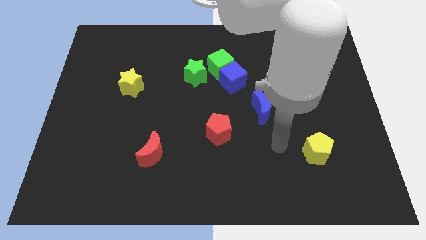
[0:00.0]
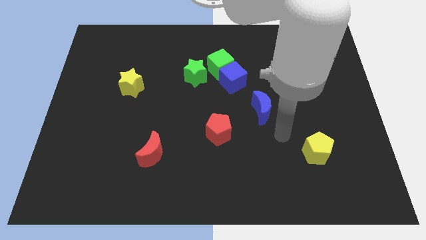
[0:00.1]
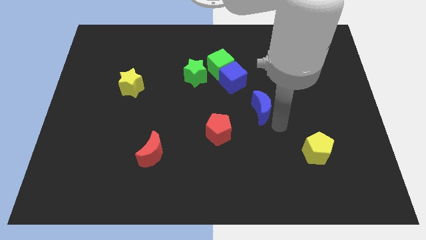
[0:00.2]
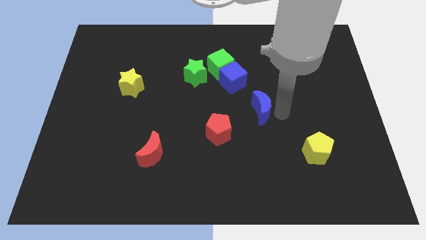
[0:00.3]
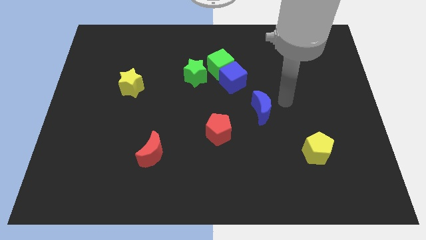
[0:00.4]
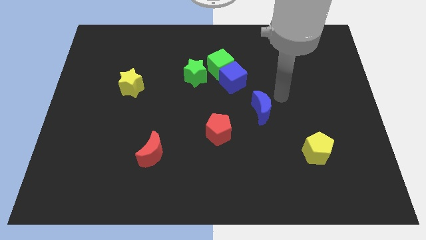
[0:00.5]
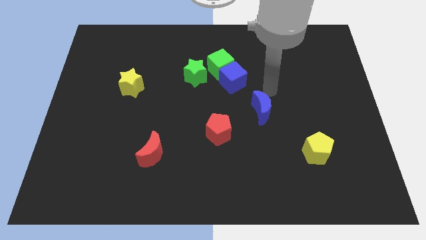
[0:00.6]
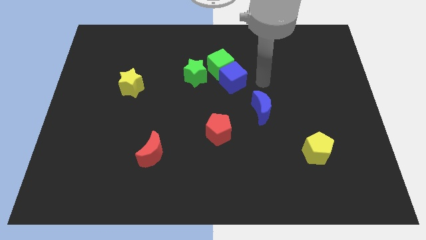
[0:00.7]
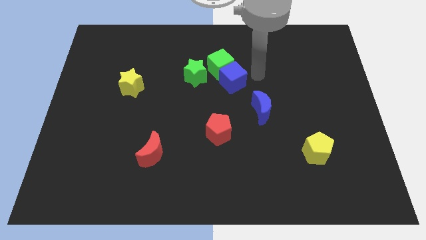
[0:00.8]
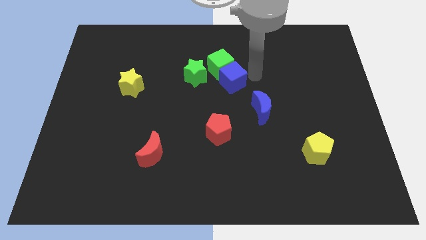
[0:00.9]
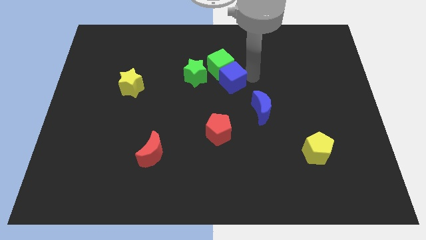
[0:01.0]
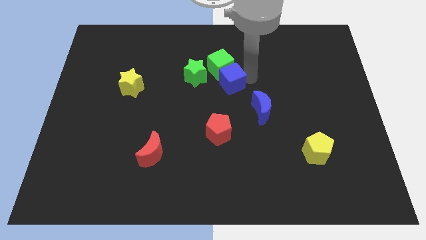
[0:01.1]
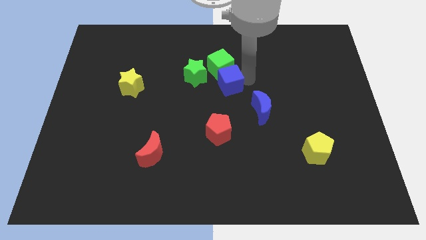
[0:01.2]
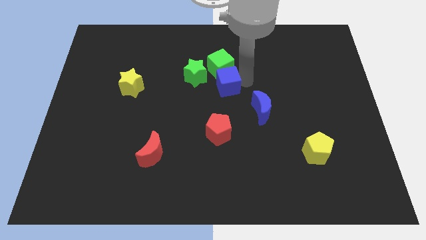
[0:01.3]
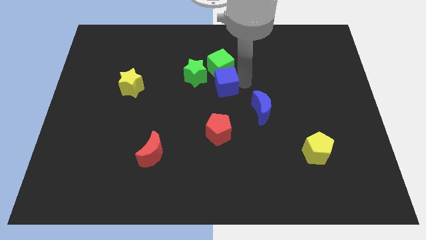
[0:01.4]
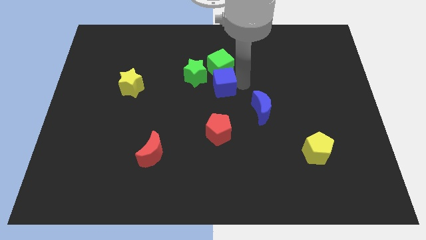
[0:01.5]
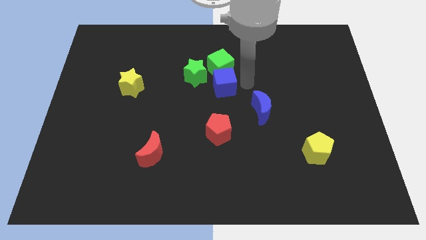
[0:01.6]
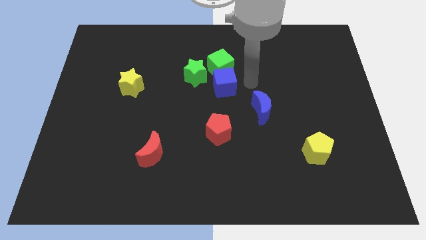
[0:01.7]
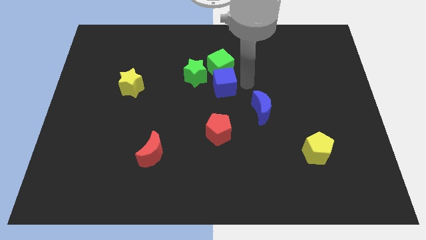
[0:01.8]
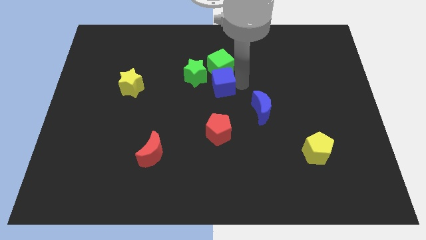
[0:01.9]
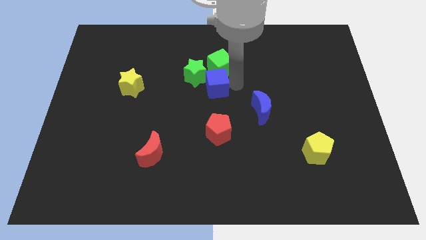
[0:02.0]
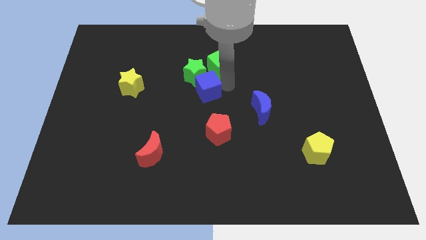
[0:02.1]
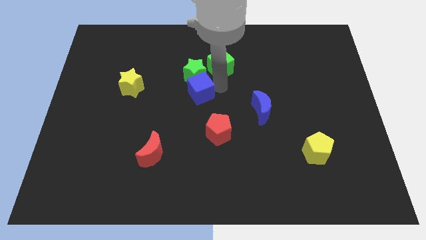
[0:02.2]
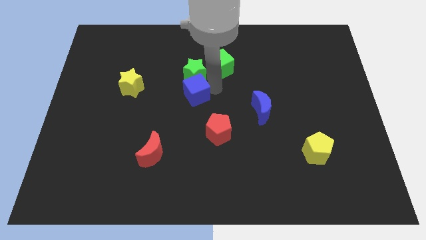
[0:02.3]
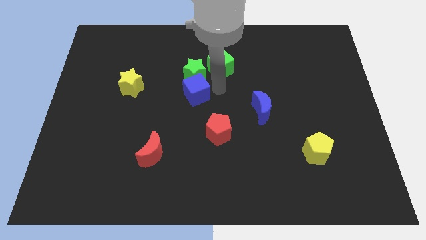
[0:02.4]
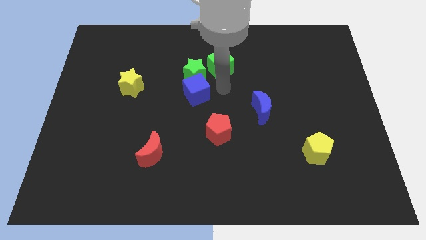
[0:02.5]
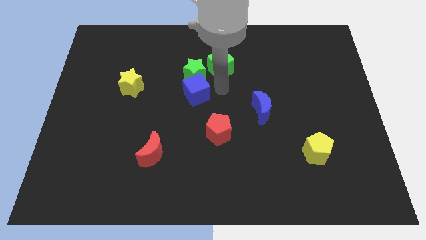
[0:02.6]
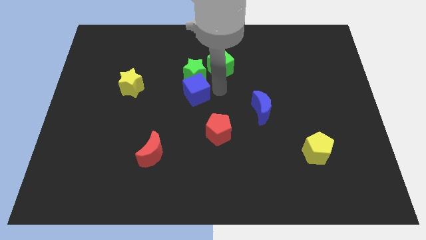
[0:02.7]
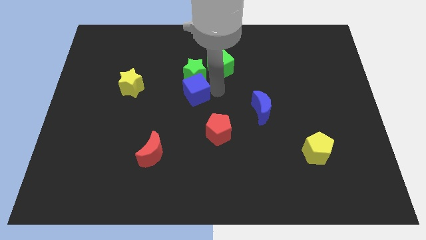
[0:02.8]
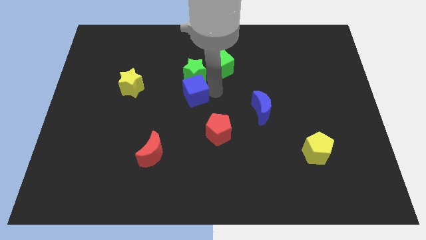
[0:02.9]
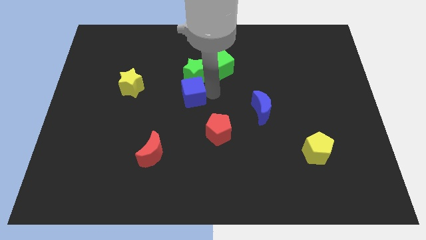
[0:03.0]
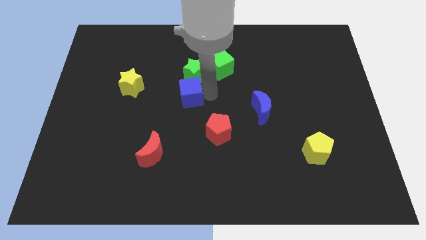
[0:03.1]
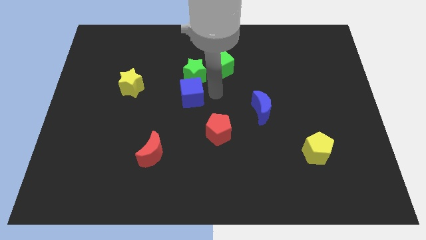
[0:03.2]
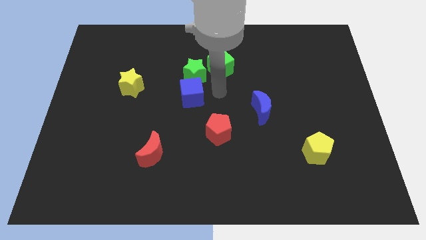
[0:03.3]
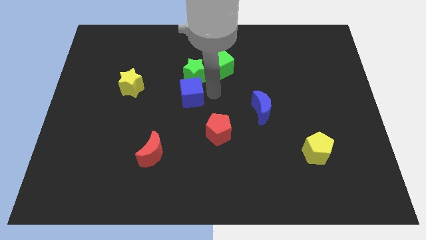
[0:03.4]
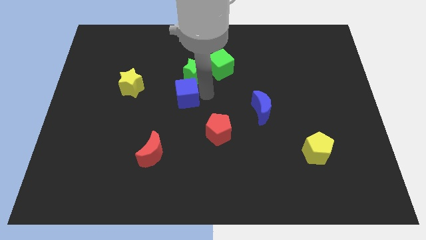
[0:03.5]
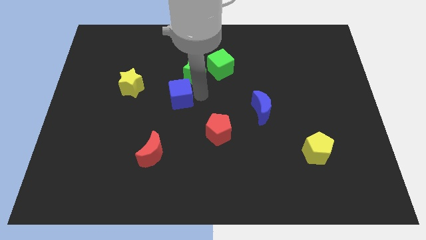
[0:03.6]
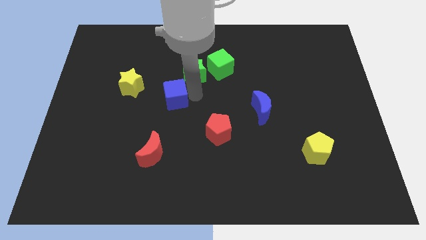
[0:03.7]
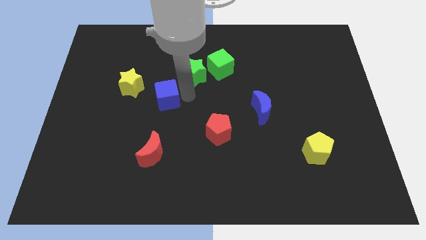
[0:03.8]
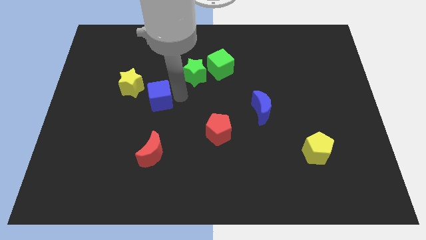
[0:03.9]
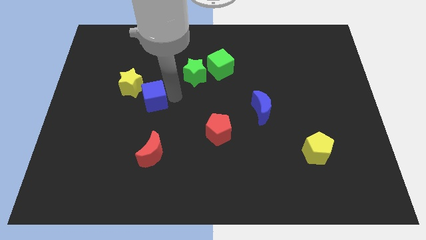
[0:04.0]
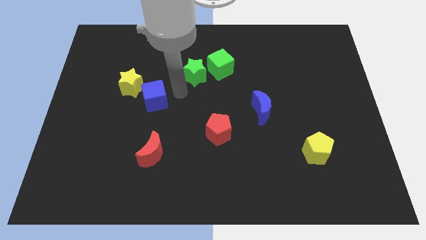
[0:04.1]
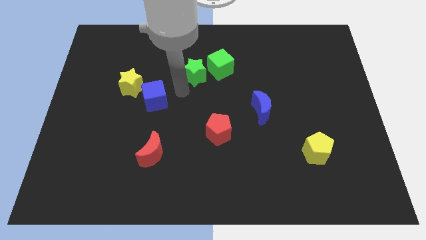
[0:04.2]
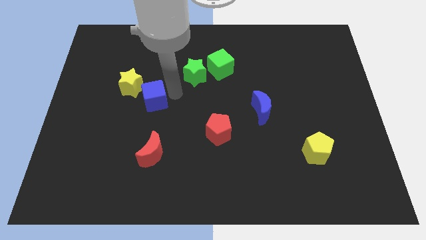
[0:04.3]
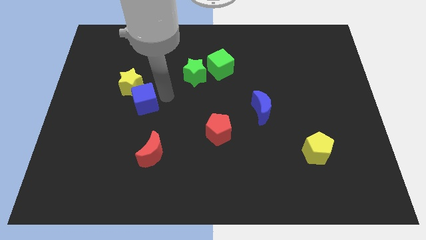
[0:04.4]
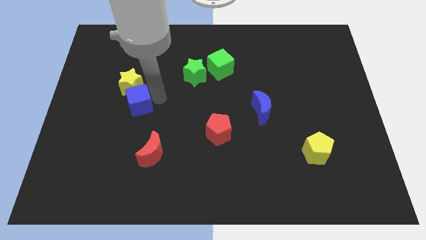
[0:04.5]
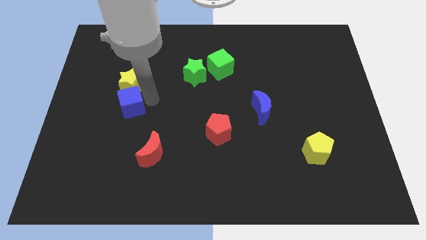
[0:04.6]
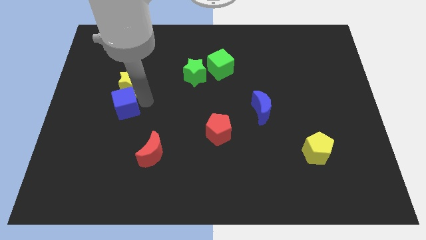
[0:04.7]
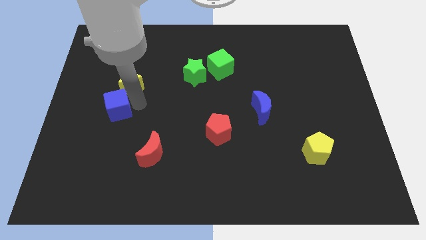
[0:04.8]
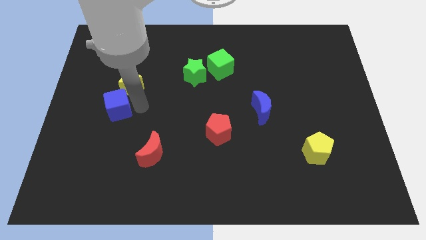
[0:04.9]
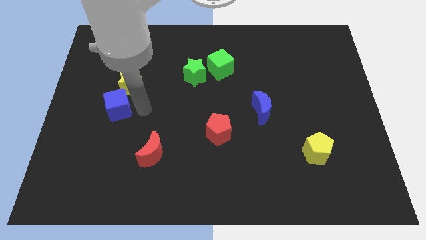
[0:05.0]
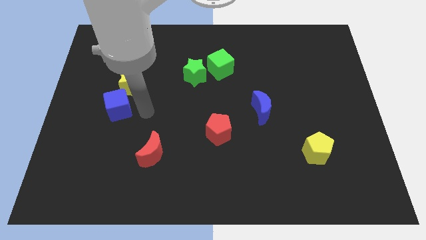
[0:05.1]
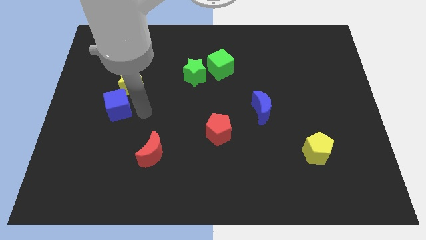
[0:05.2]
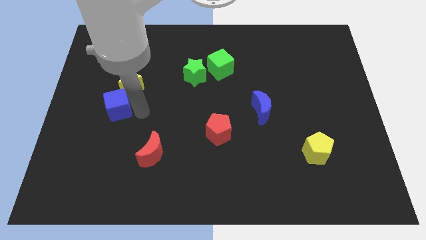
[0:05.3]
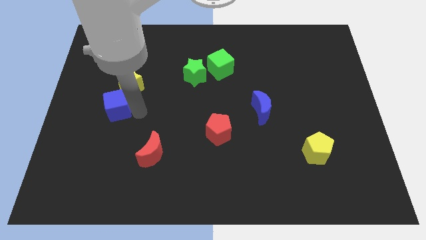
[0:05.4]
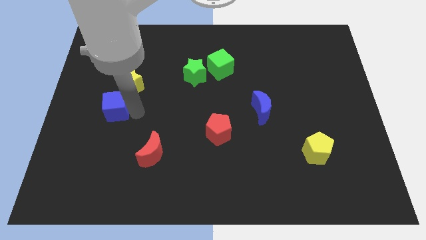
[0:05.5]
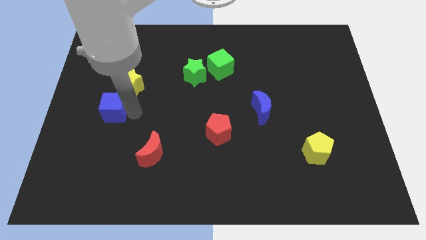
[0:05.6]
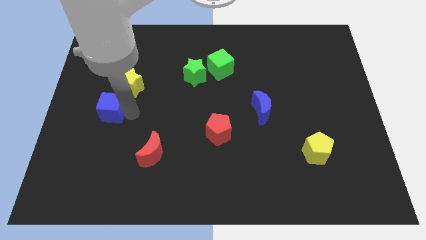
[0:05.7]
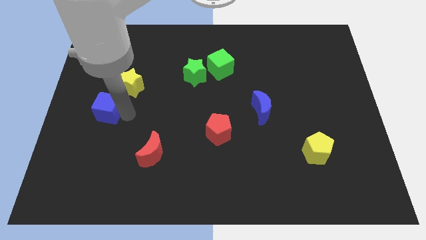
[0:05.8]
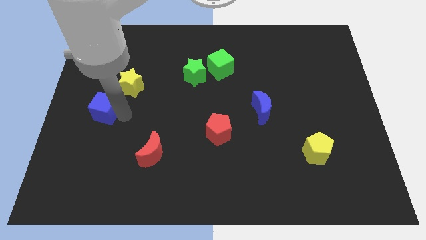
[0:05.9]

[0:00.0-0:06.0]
slide the blue cube to the left side

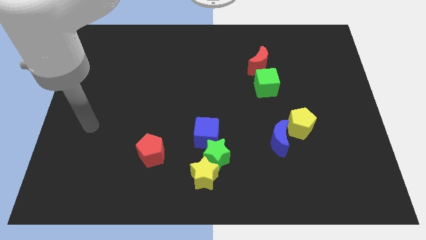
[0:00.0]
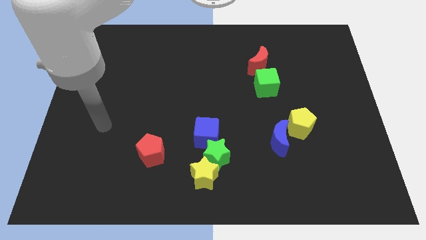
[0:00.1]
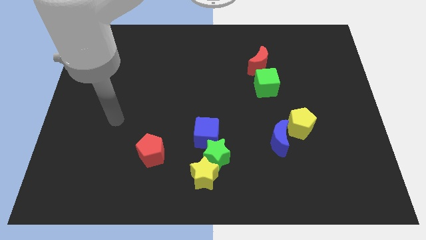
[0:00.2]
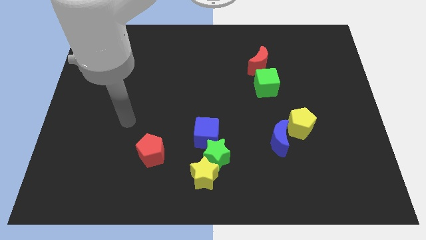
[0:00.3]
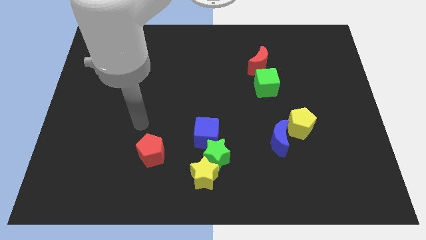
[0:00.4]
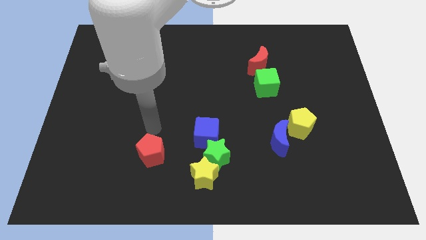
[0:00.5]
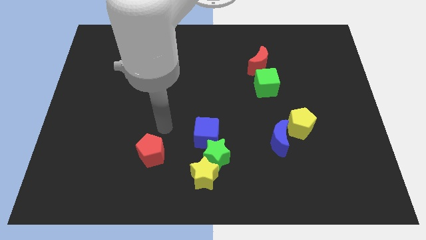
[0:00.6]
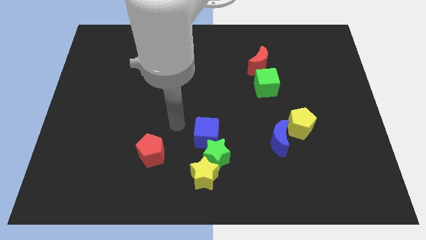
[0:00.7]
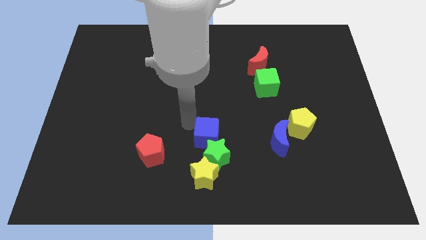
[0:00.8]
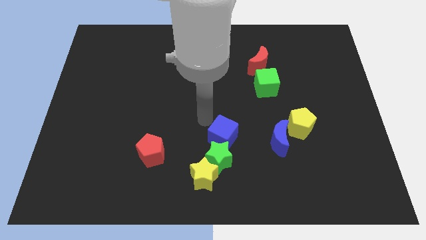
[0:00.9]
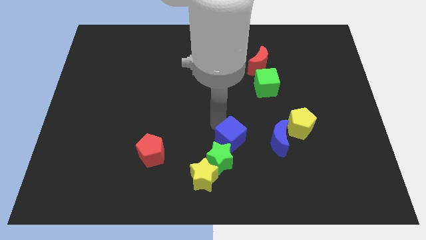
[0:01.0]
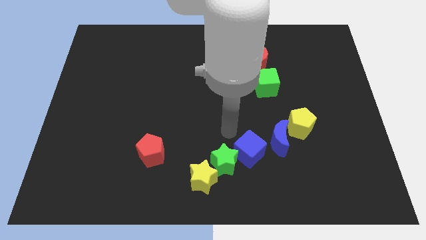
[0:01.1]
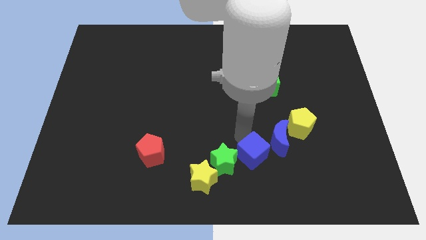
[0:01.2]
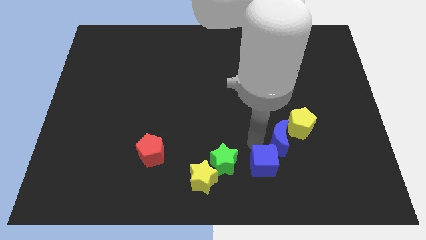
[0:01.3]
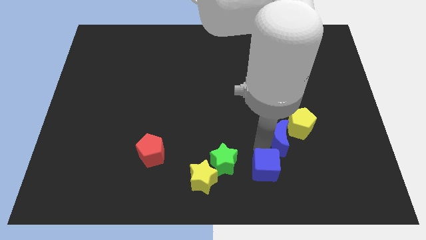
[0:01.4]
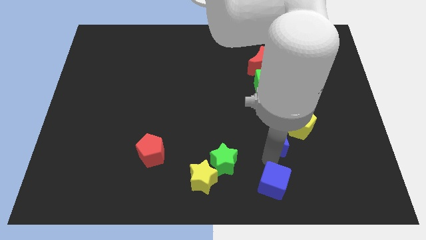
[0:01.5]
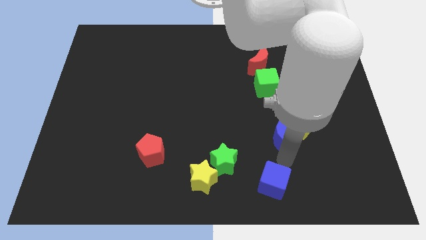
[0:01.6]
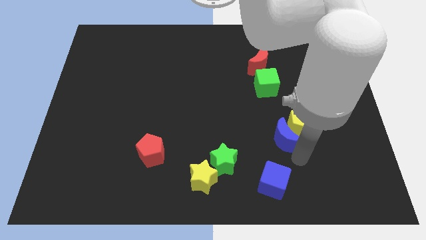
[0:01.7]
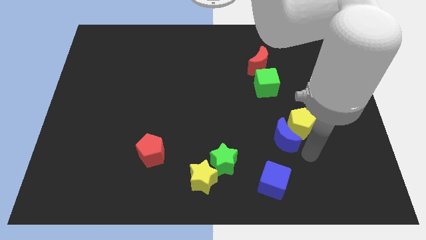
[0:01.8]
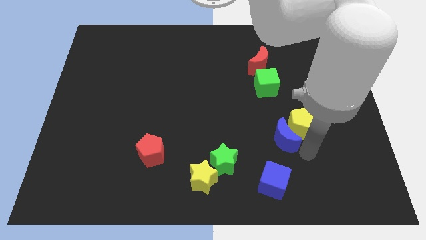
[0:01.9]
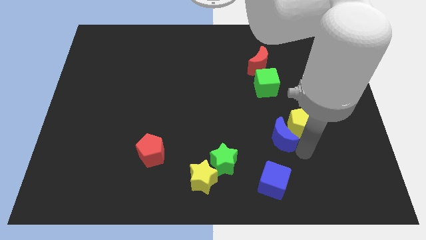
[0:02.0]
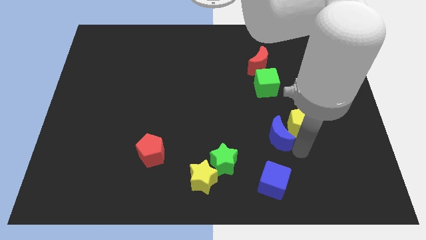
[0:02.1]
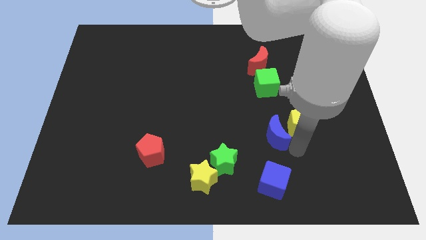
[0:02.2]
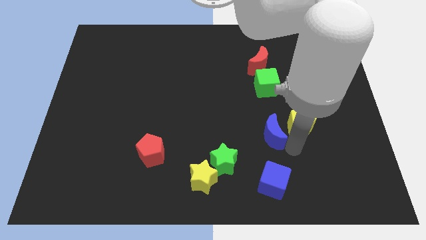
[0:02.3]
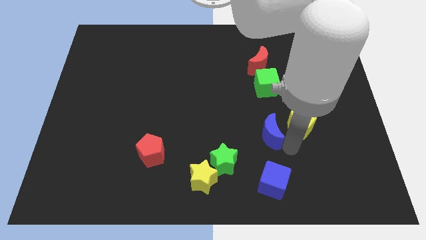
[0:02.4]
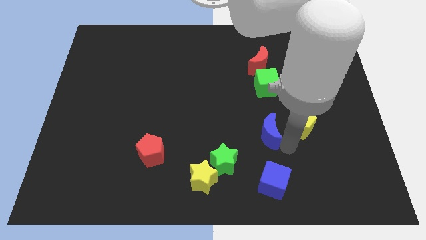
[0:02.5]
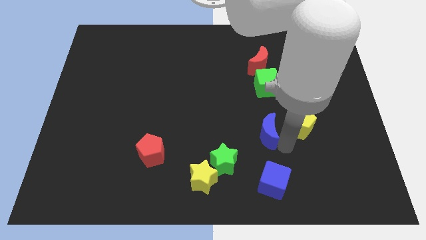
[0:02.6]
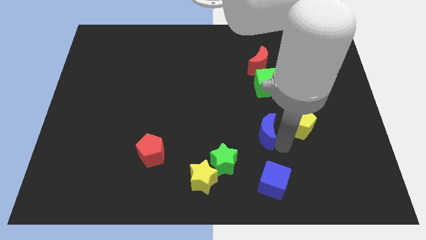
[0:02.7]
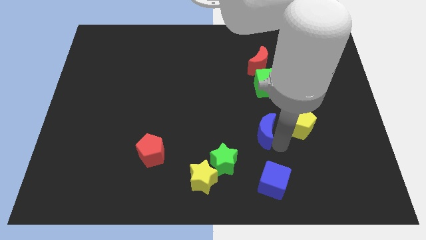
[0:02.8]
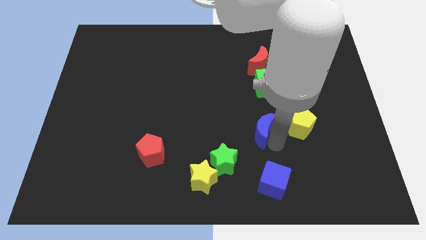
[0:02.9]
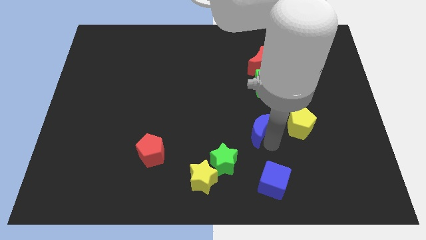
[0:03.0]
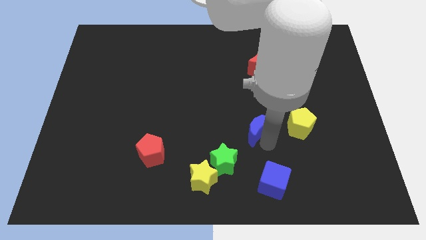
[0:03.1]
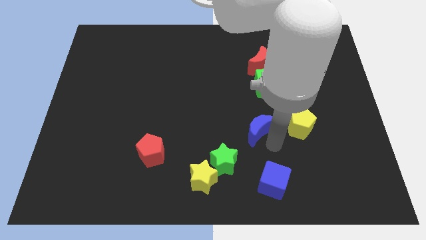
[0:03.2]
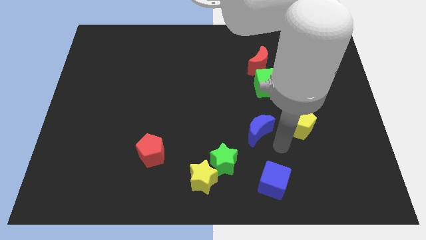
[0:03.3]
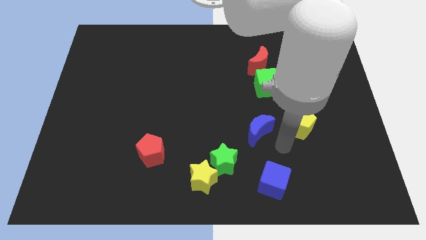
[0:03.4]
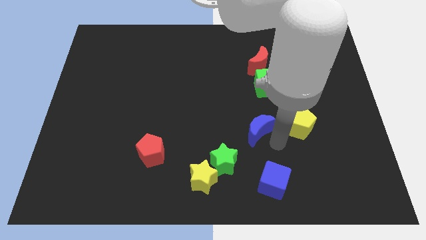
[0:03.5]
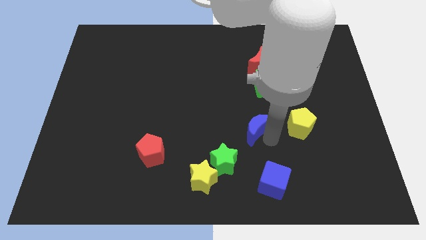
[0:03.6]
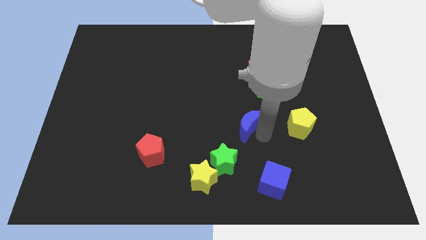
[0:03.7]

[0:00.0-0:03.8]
slide the blue moon to the middle
